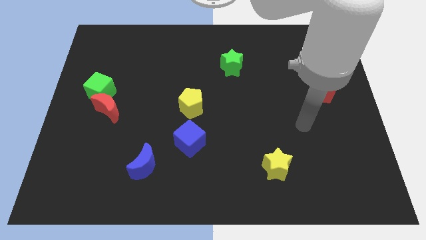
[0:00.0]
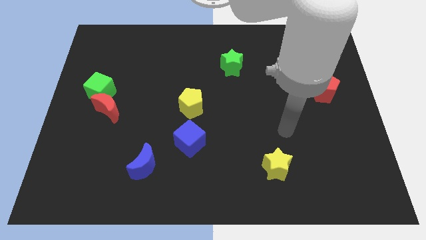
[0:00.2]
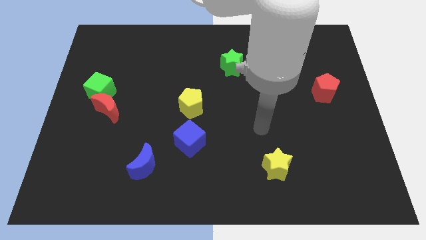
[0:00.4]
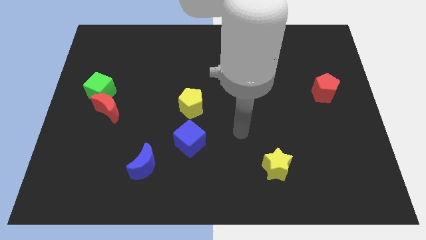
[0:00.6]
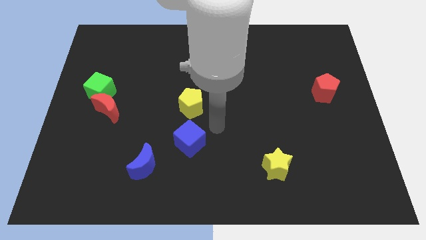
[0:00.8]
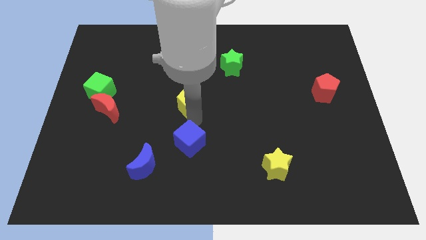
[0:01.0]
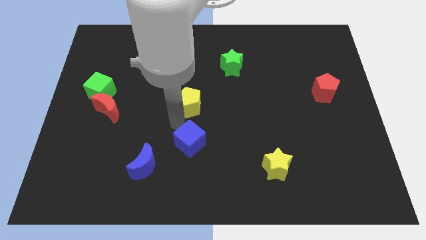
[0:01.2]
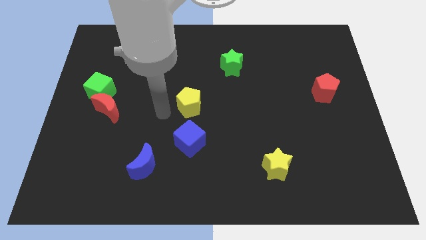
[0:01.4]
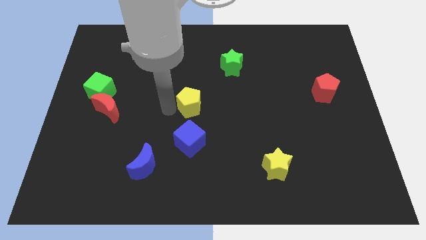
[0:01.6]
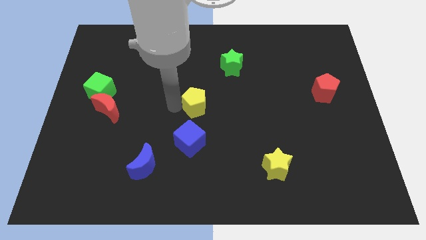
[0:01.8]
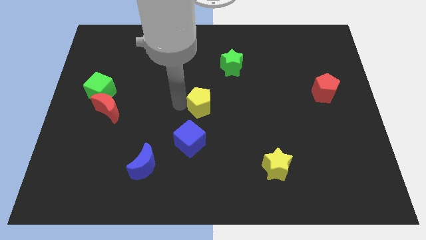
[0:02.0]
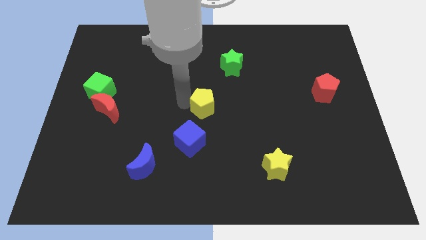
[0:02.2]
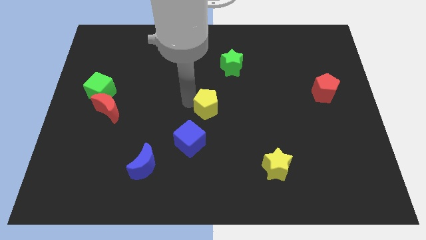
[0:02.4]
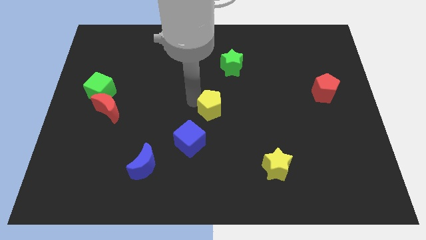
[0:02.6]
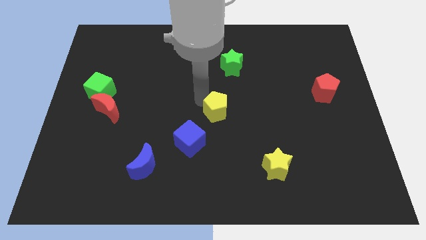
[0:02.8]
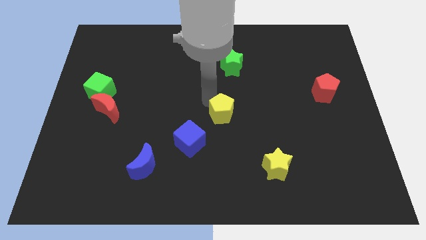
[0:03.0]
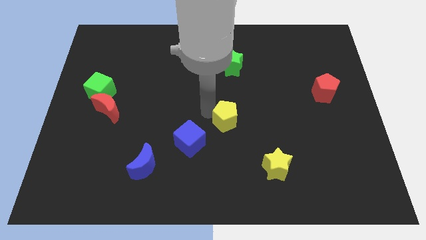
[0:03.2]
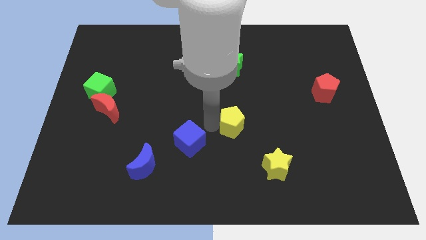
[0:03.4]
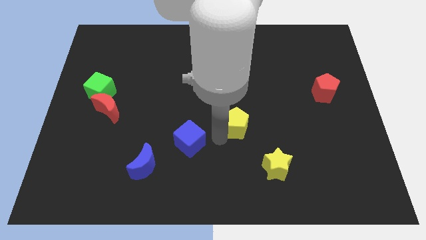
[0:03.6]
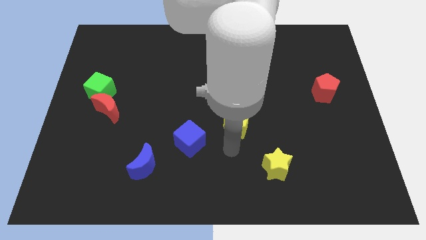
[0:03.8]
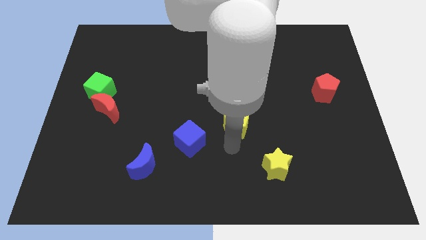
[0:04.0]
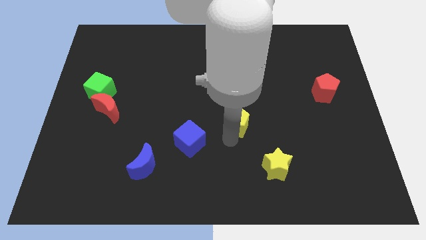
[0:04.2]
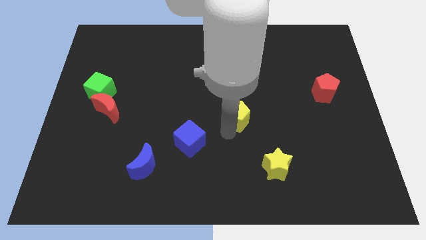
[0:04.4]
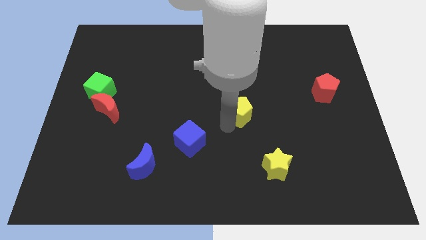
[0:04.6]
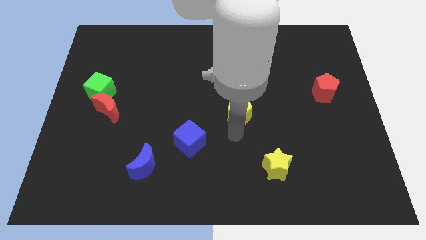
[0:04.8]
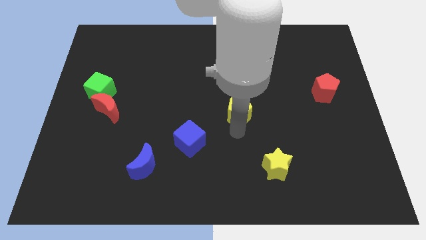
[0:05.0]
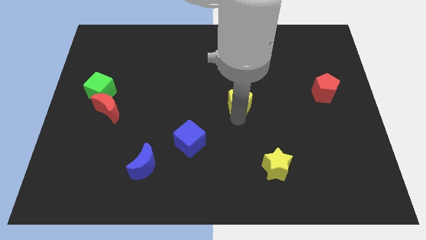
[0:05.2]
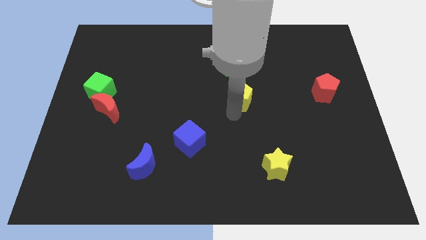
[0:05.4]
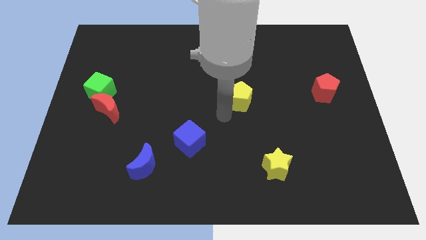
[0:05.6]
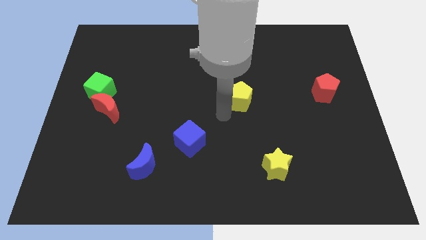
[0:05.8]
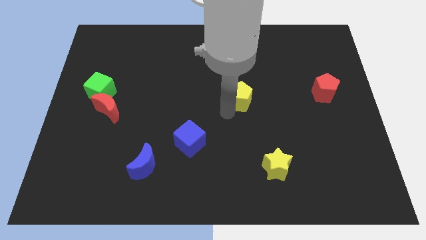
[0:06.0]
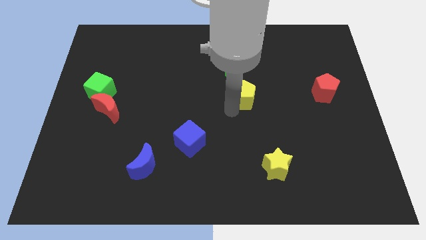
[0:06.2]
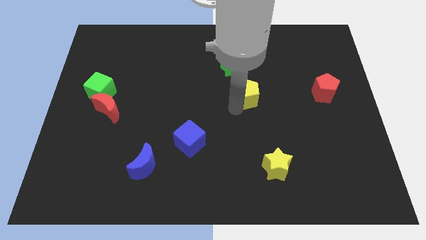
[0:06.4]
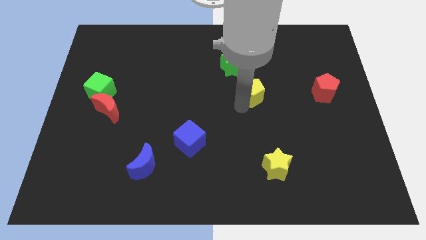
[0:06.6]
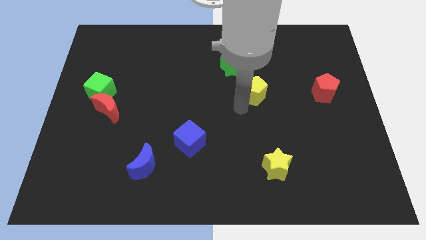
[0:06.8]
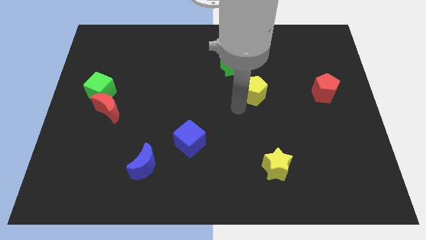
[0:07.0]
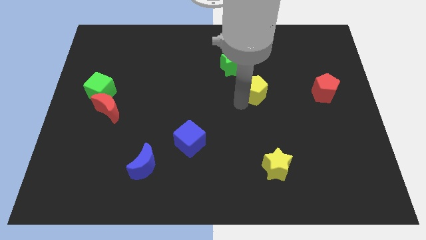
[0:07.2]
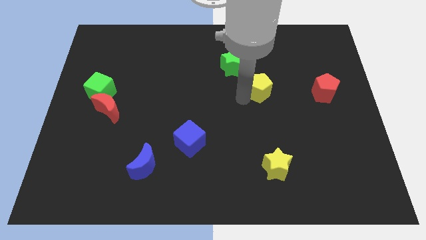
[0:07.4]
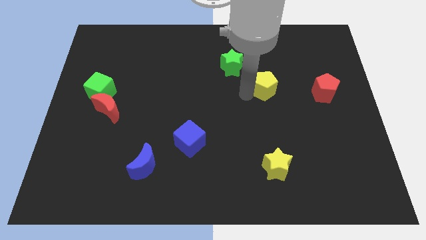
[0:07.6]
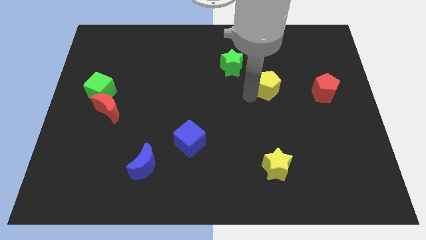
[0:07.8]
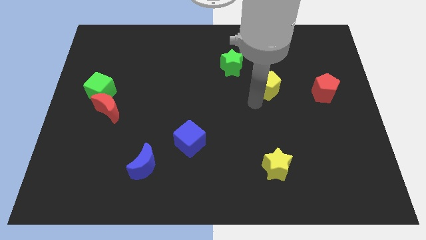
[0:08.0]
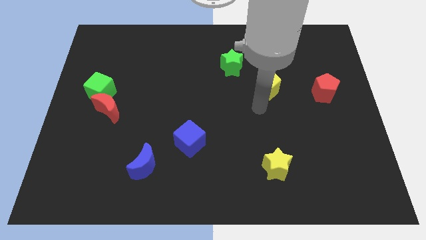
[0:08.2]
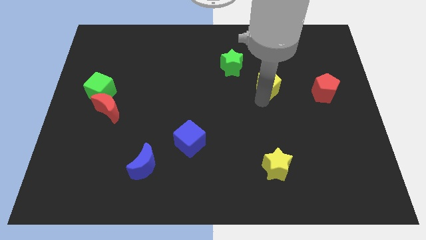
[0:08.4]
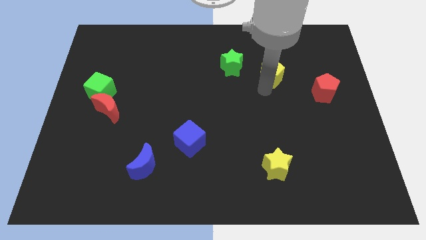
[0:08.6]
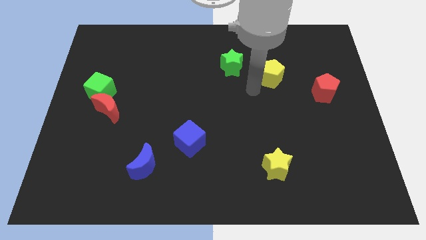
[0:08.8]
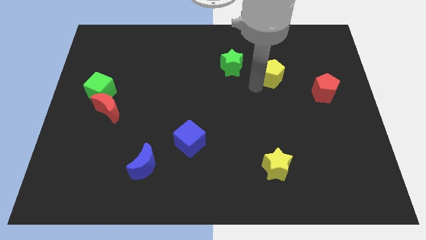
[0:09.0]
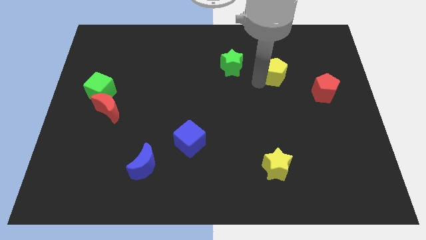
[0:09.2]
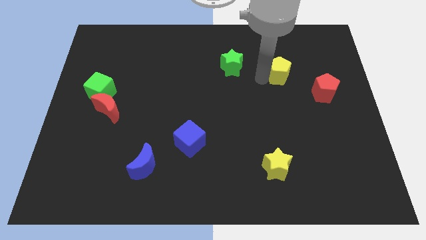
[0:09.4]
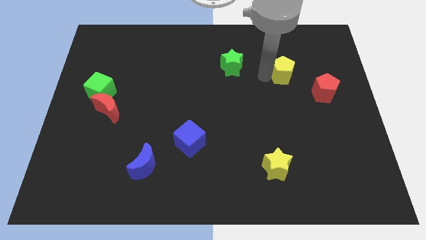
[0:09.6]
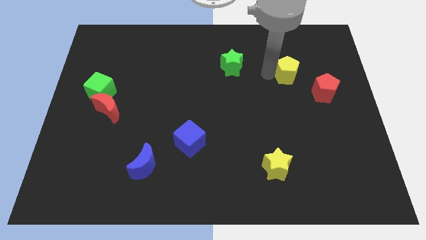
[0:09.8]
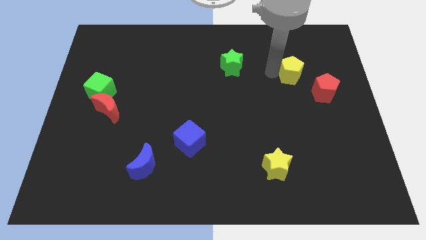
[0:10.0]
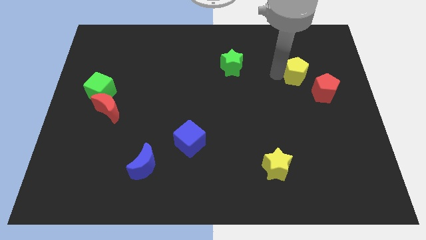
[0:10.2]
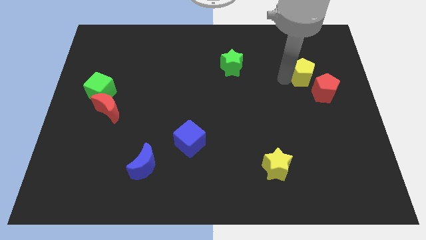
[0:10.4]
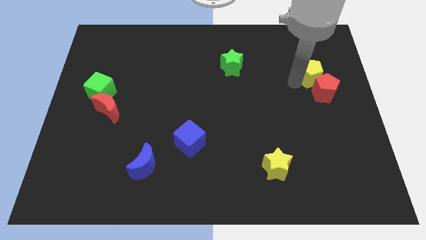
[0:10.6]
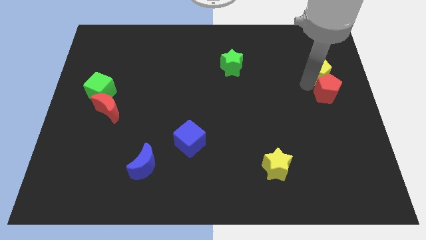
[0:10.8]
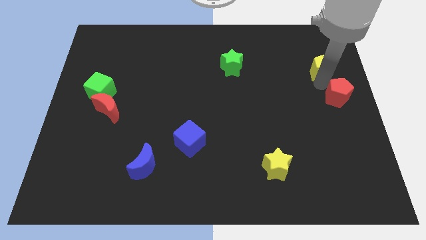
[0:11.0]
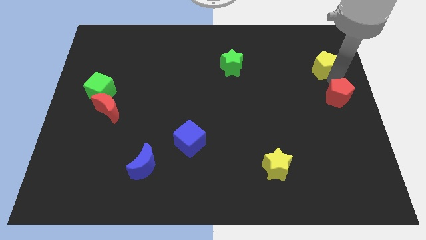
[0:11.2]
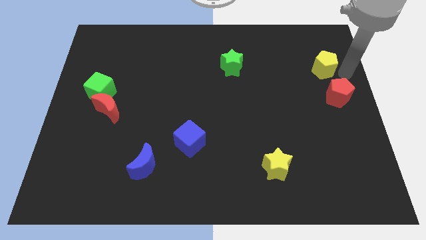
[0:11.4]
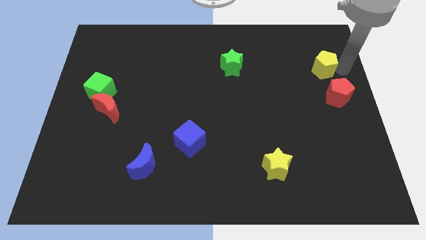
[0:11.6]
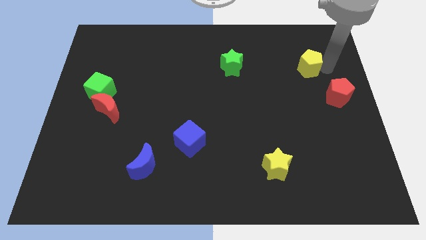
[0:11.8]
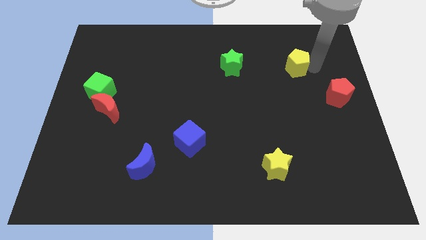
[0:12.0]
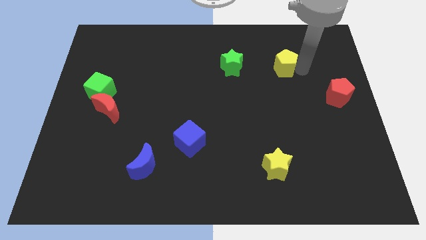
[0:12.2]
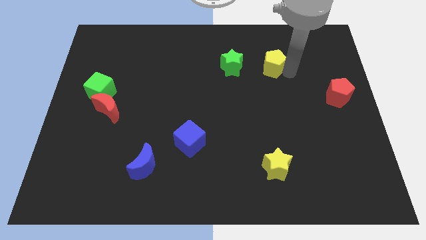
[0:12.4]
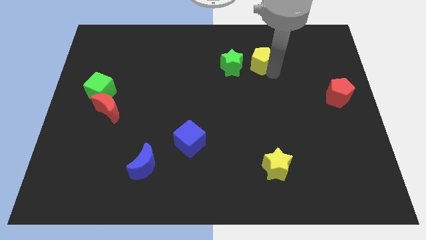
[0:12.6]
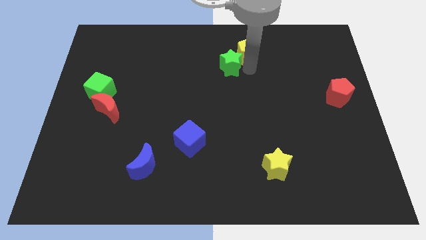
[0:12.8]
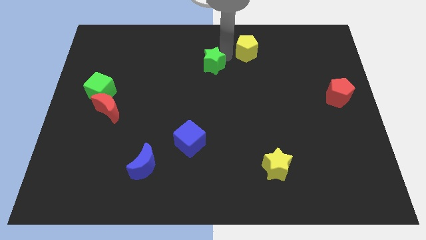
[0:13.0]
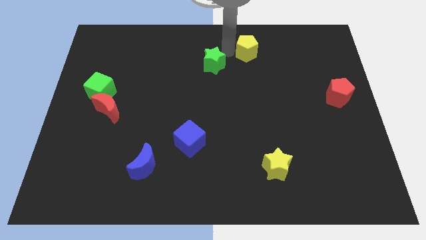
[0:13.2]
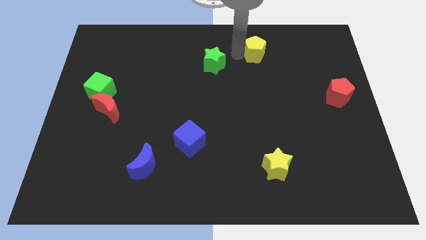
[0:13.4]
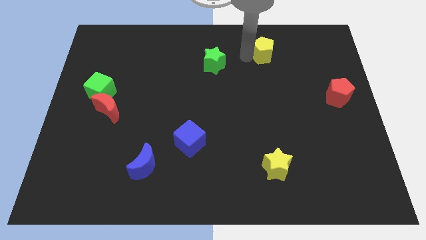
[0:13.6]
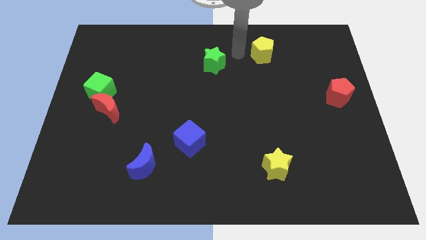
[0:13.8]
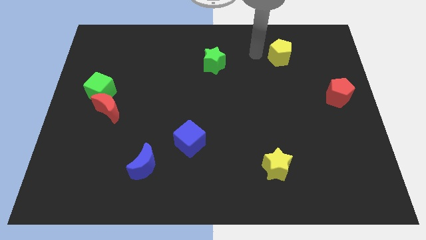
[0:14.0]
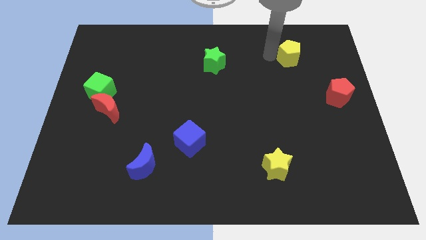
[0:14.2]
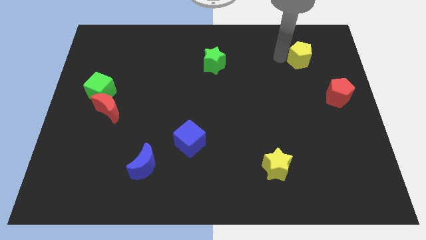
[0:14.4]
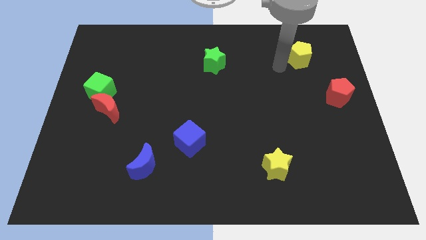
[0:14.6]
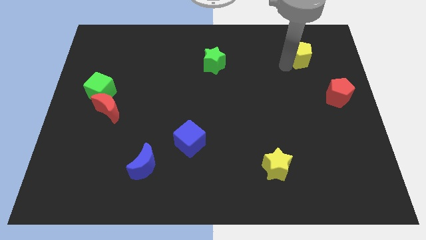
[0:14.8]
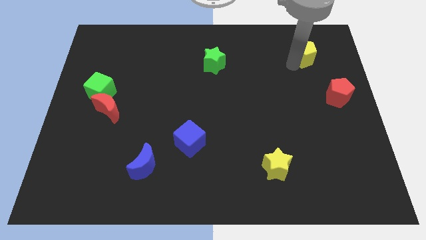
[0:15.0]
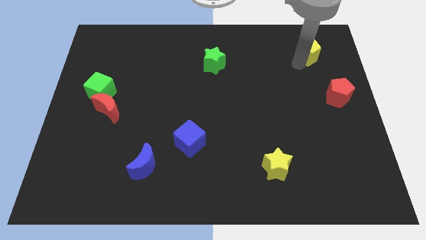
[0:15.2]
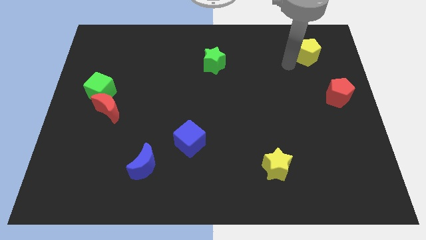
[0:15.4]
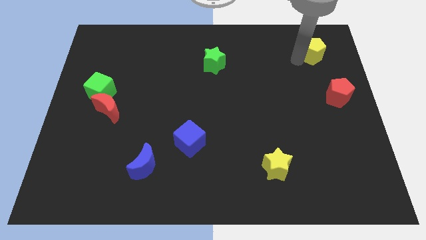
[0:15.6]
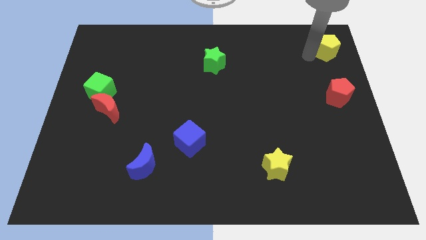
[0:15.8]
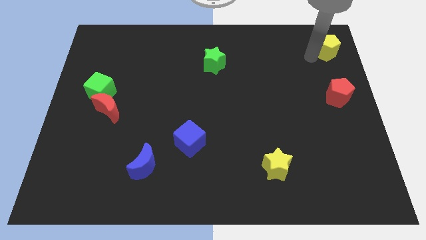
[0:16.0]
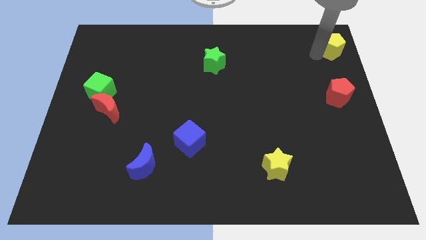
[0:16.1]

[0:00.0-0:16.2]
move the yellow pentagon to the top right corner
